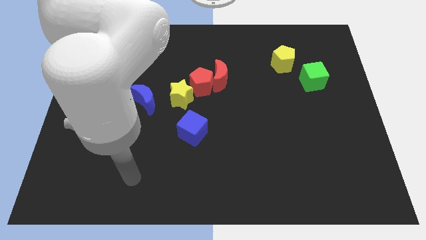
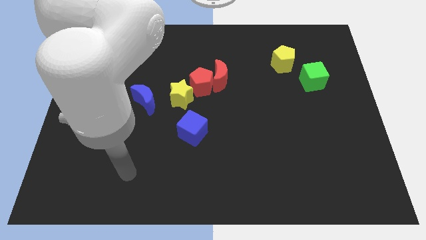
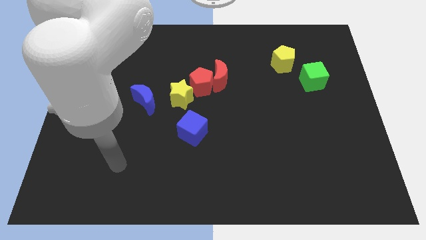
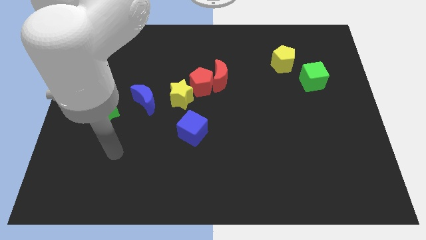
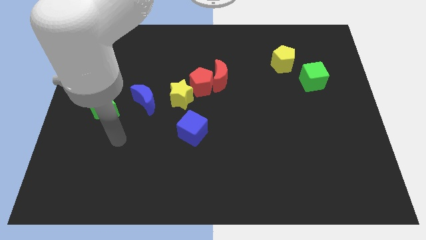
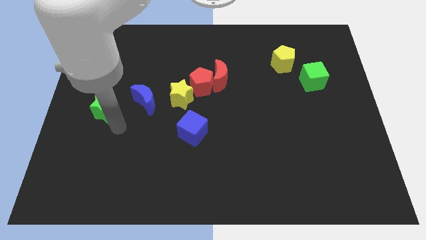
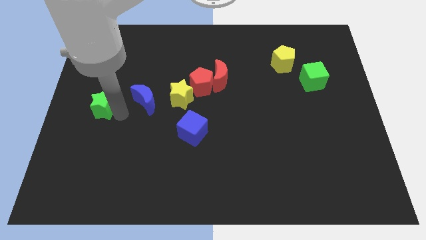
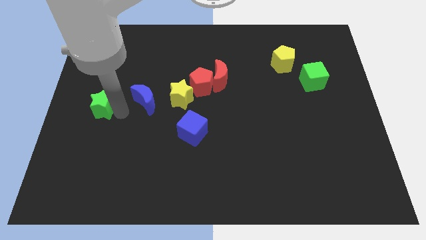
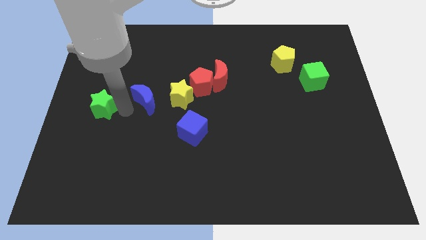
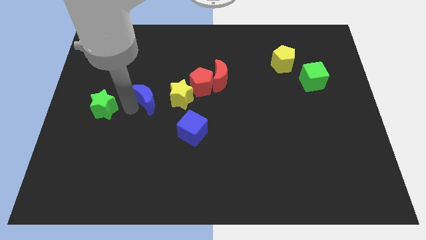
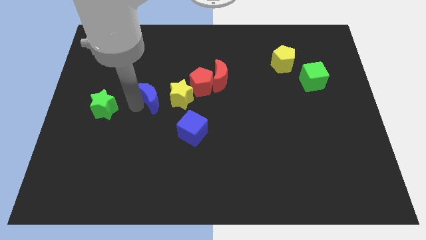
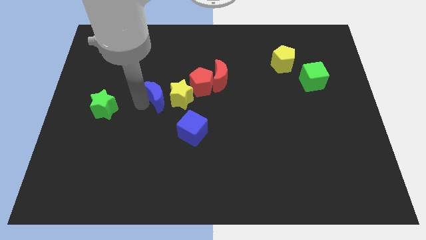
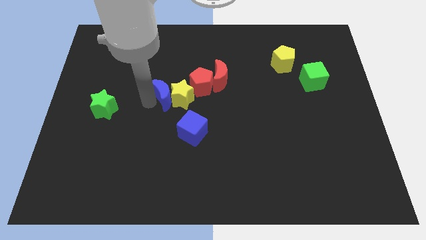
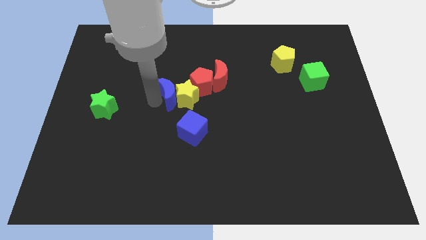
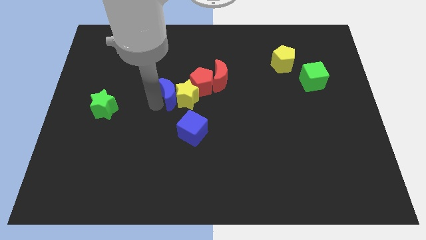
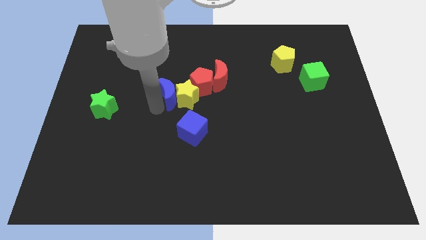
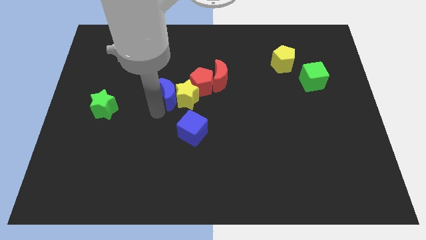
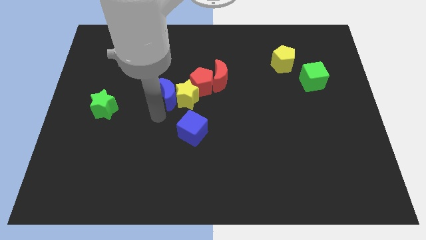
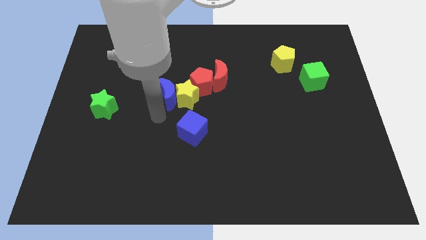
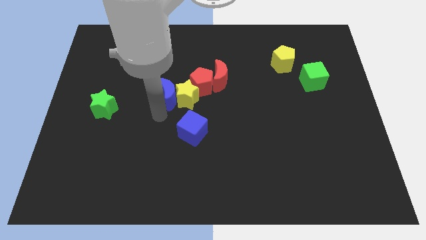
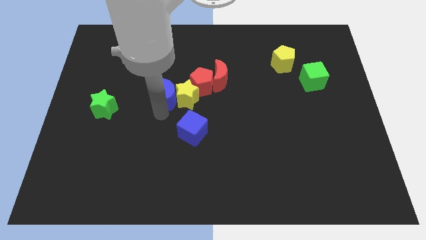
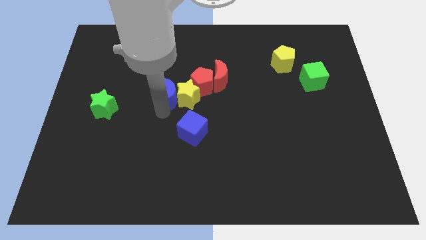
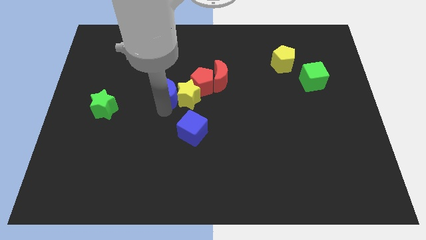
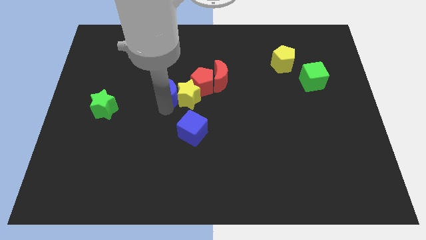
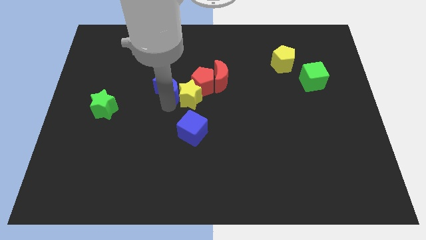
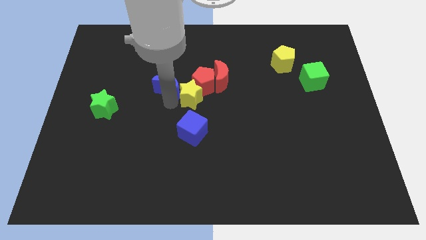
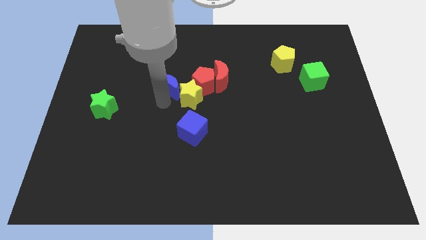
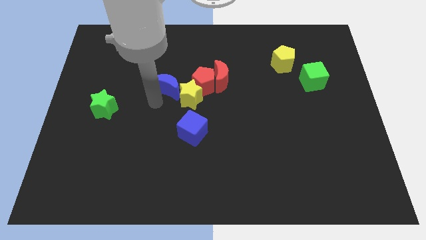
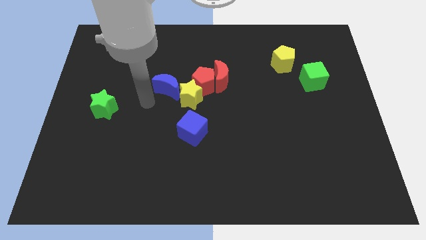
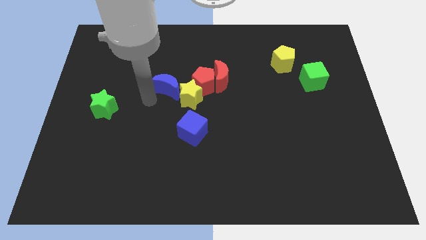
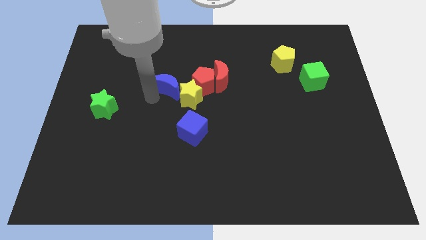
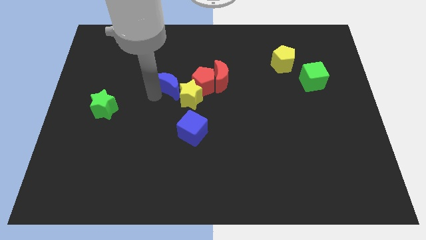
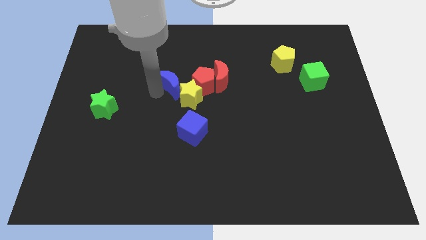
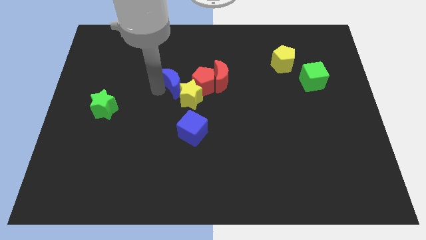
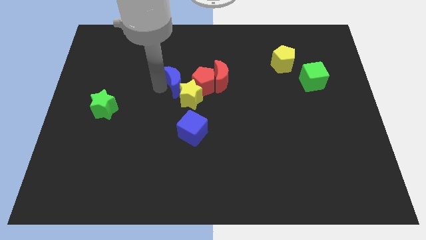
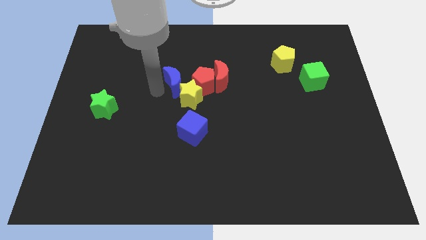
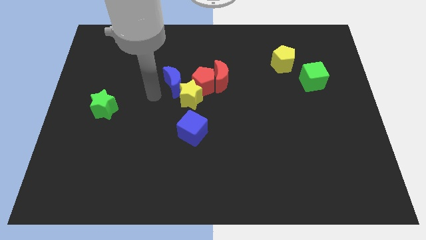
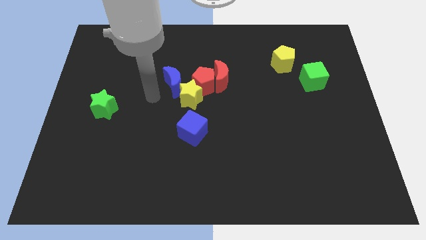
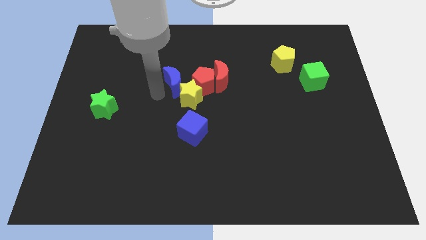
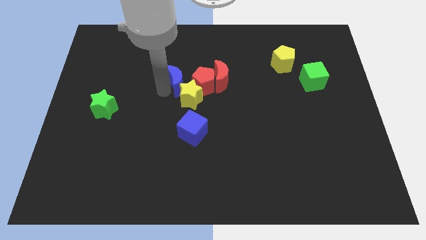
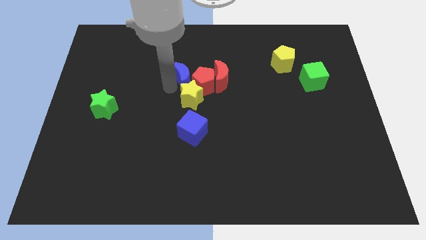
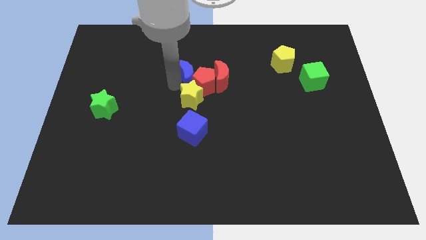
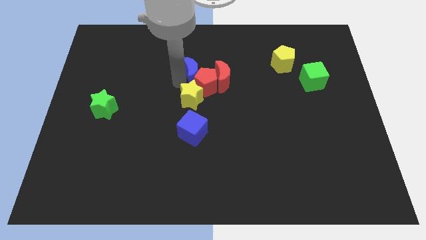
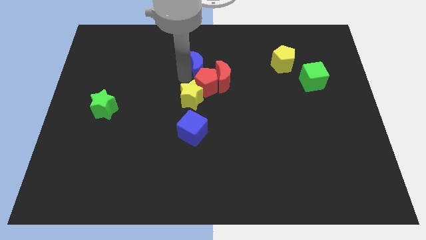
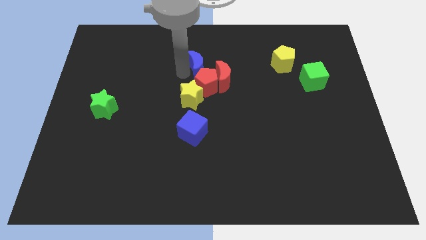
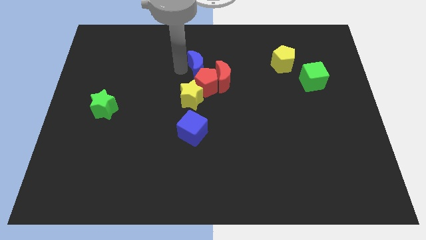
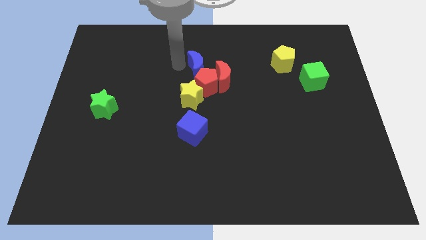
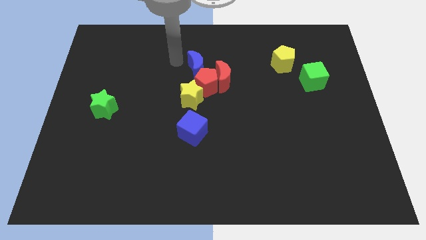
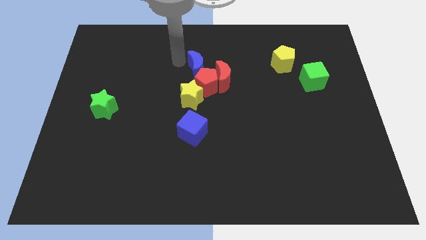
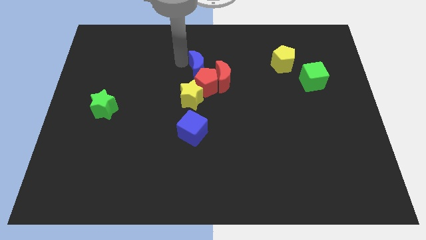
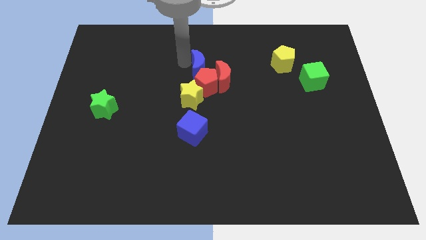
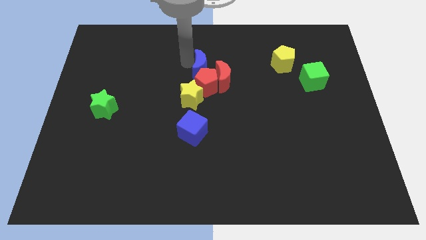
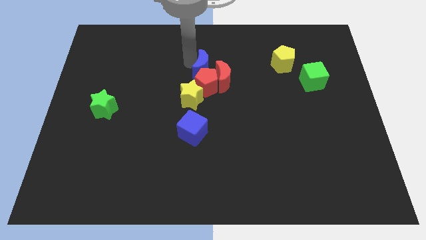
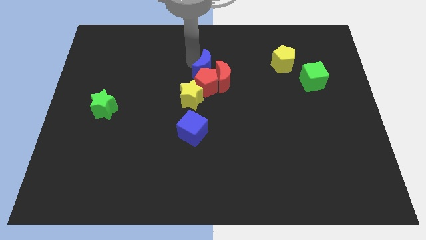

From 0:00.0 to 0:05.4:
push the blue moon next to the red moon

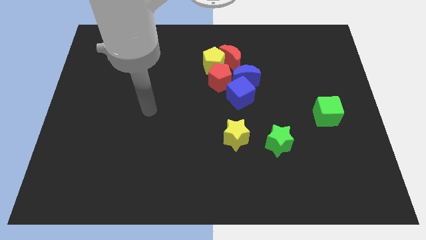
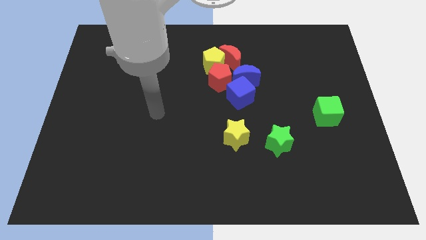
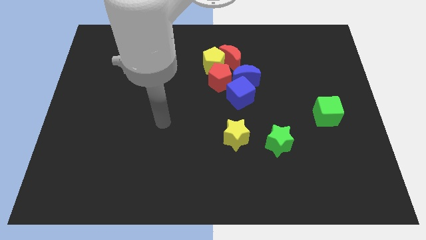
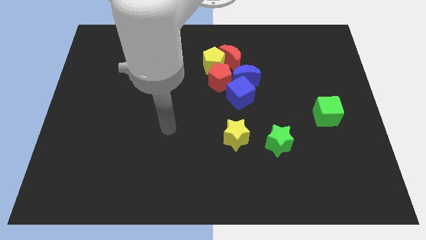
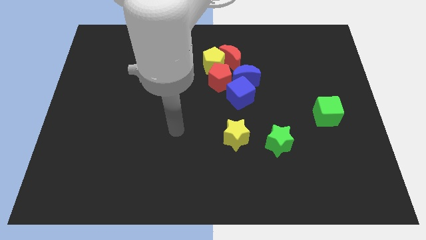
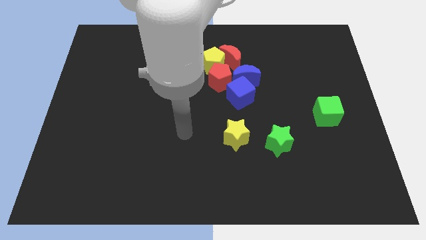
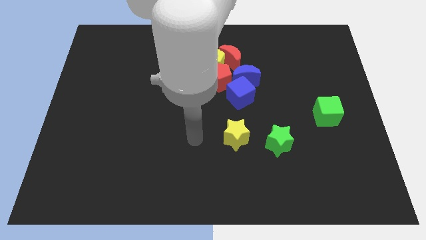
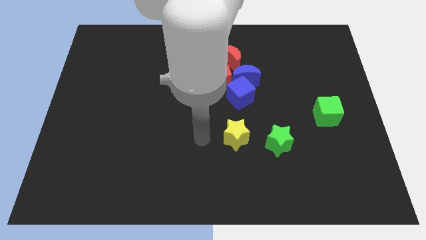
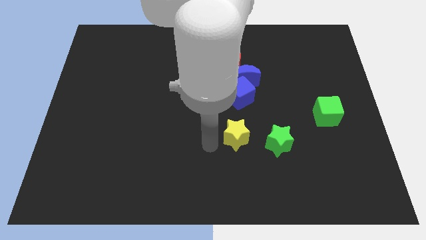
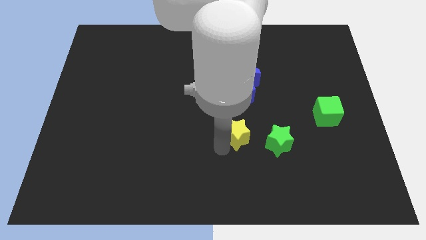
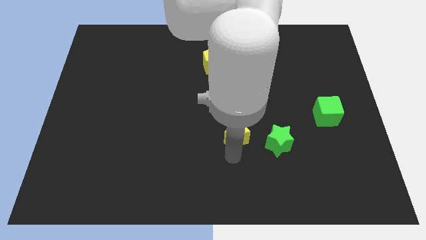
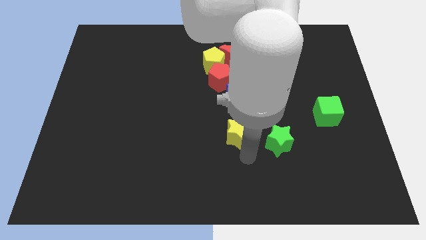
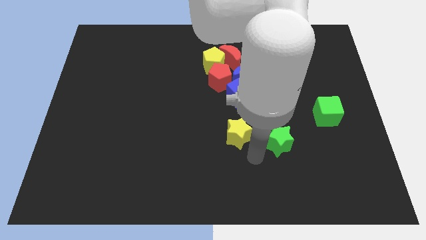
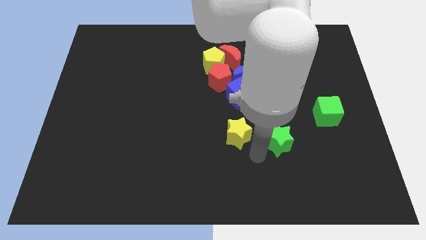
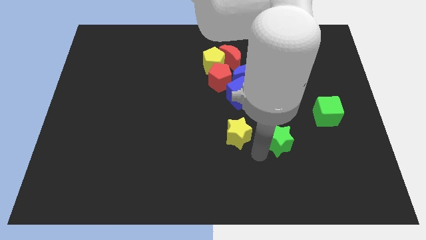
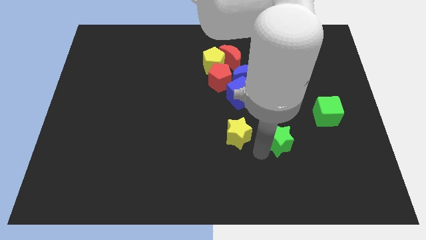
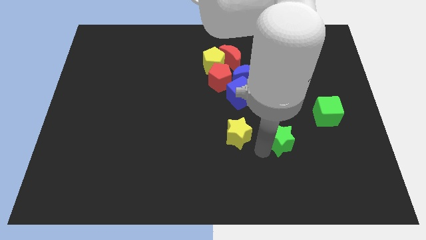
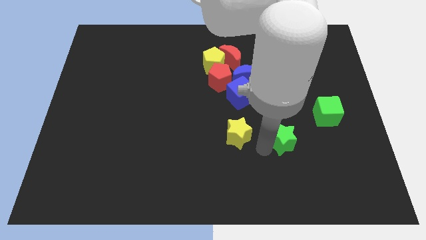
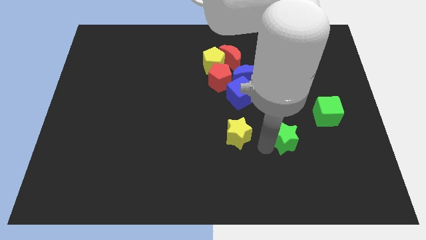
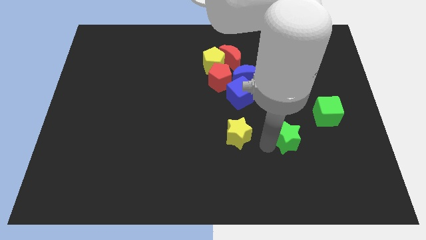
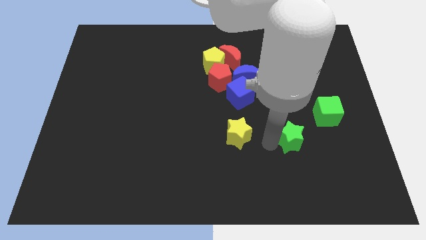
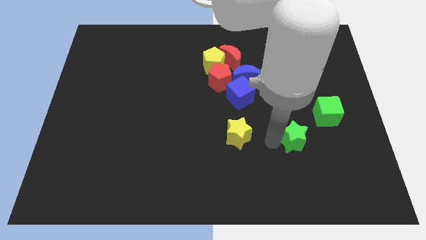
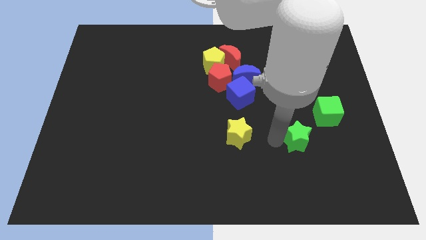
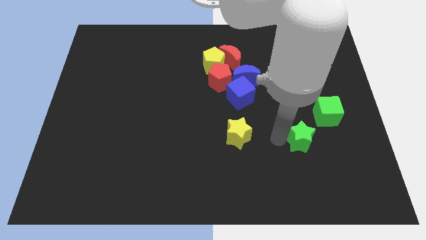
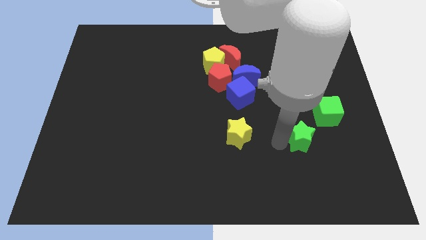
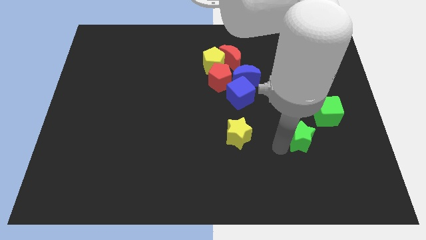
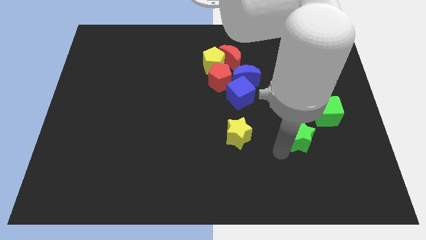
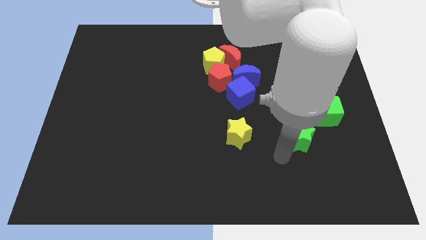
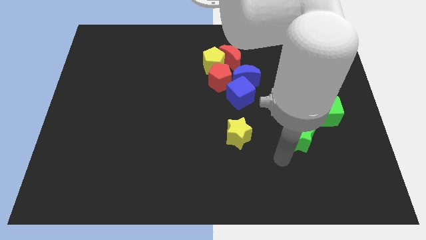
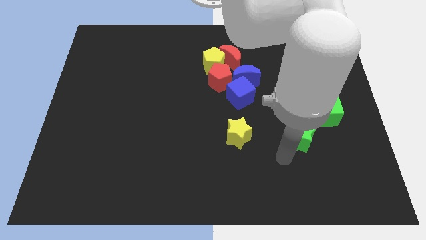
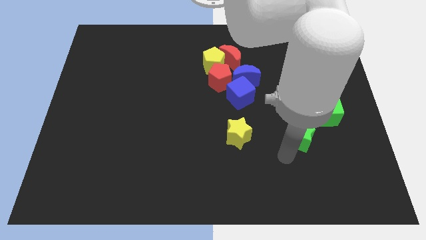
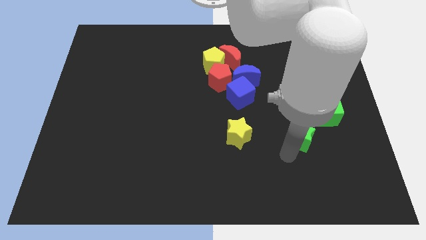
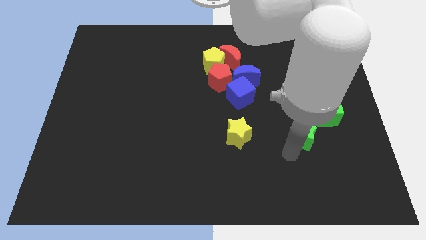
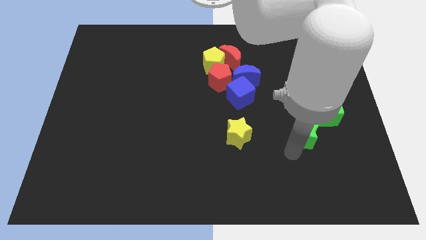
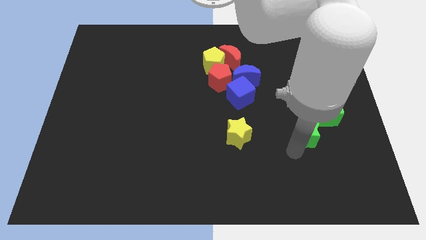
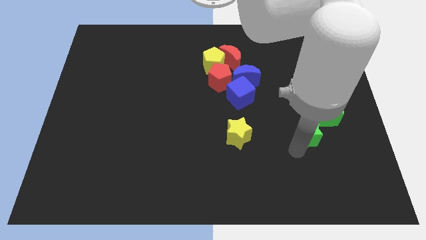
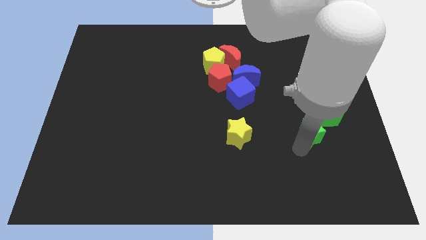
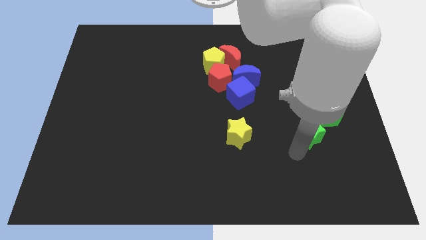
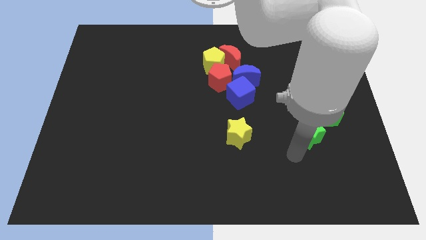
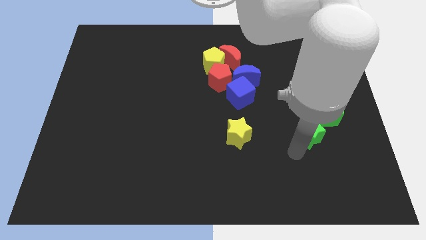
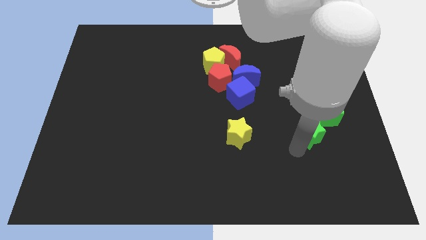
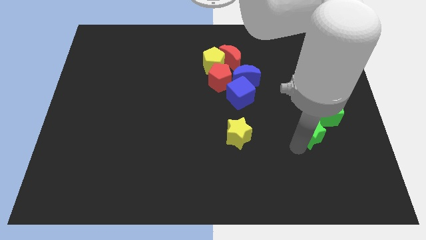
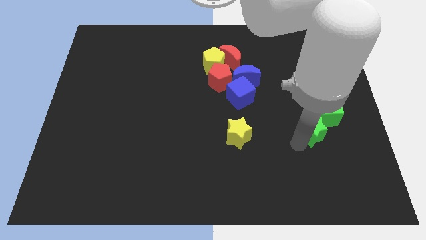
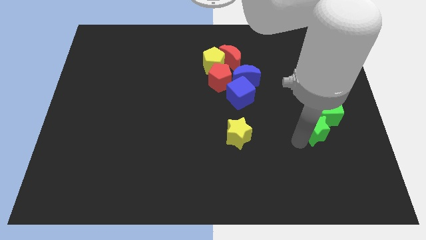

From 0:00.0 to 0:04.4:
slide the green star close to the green cube
